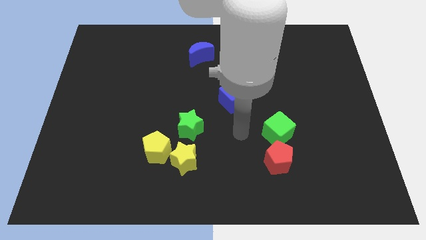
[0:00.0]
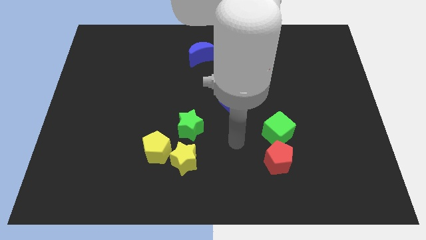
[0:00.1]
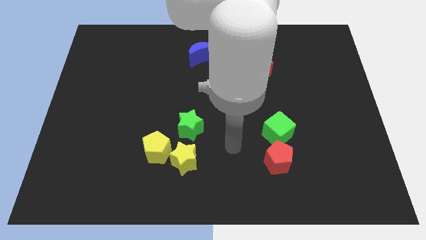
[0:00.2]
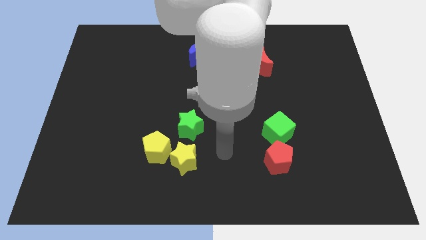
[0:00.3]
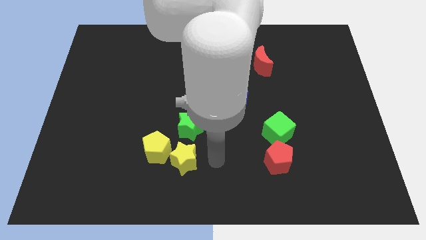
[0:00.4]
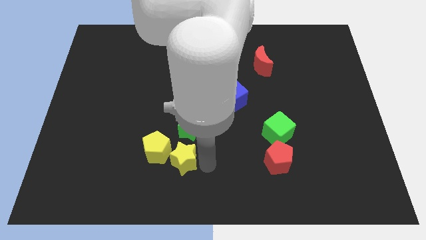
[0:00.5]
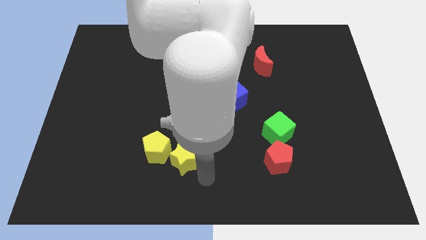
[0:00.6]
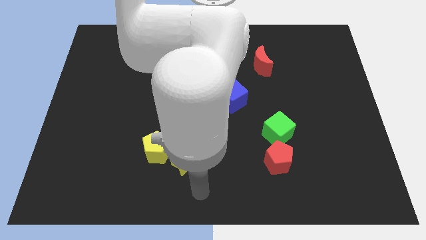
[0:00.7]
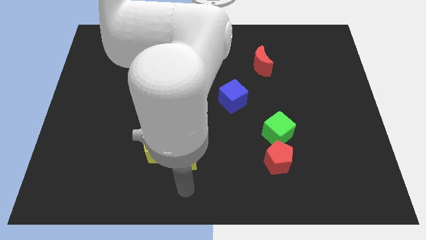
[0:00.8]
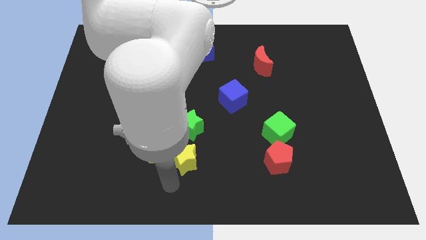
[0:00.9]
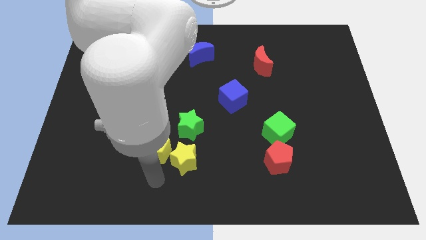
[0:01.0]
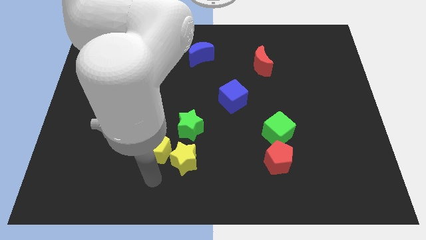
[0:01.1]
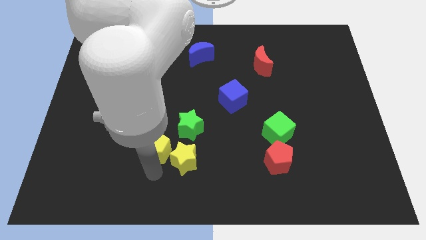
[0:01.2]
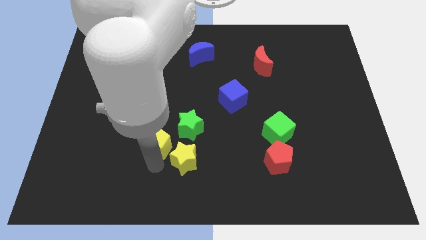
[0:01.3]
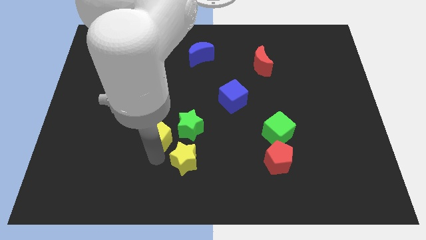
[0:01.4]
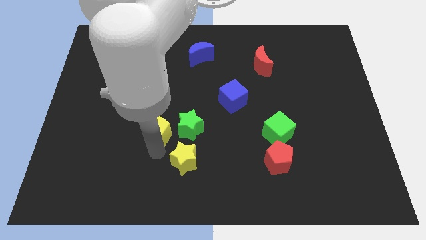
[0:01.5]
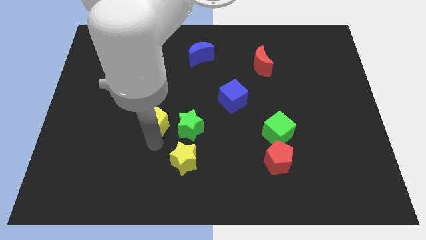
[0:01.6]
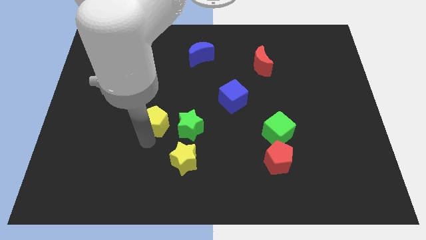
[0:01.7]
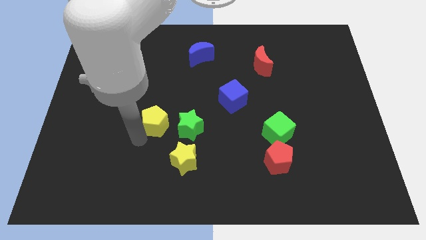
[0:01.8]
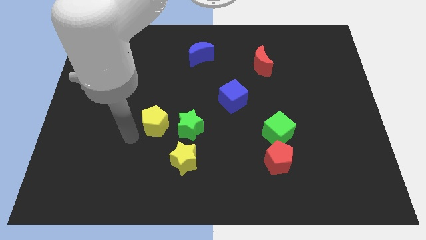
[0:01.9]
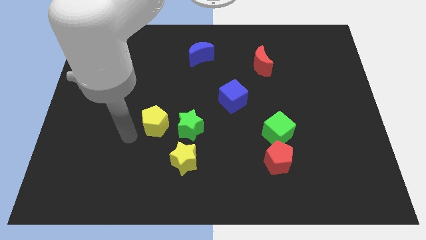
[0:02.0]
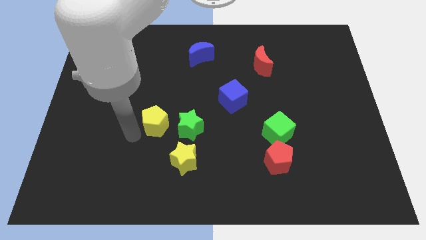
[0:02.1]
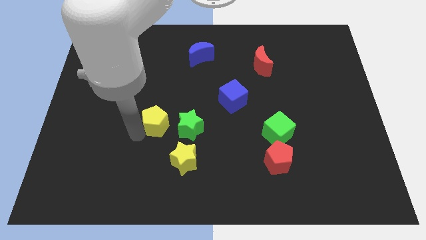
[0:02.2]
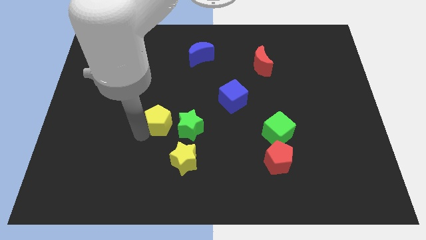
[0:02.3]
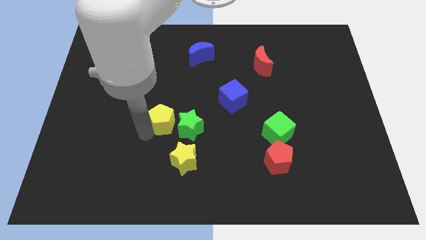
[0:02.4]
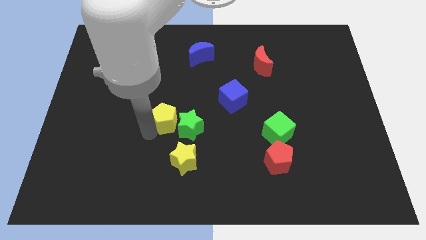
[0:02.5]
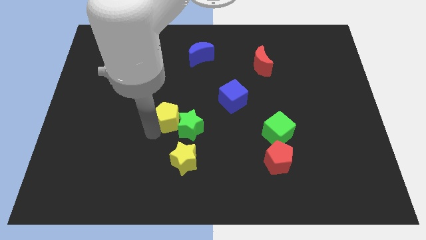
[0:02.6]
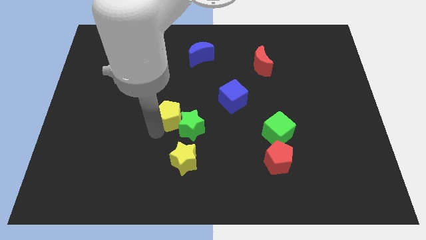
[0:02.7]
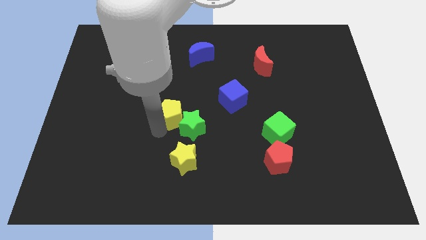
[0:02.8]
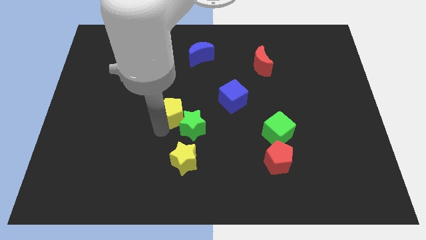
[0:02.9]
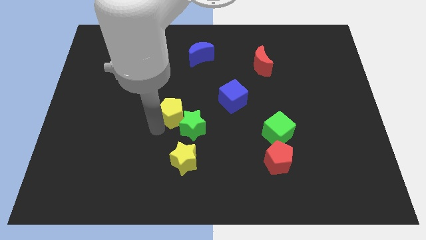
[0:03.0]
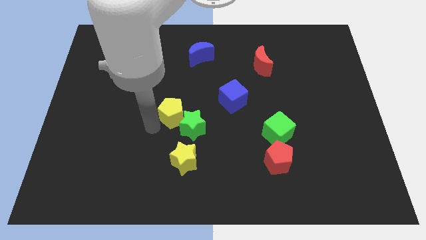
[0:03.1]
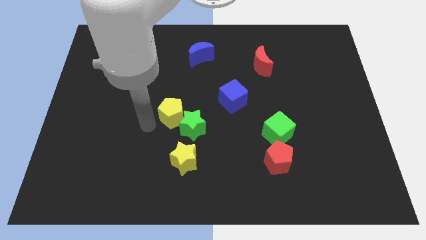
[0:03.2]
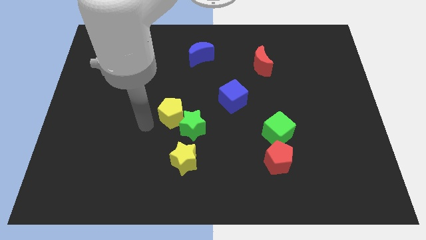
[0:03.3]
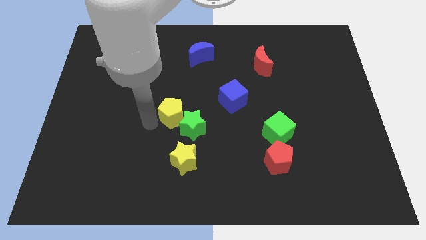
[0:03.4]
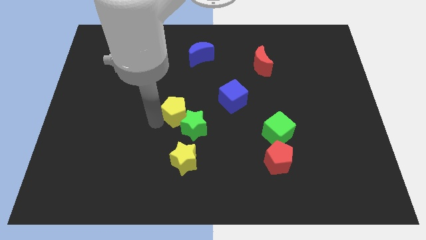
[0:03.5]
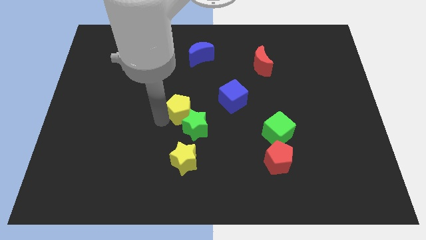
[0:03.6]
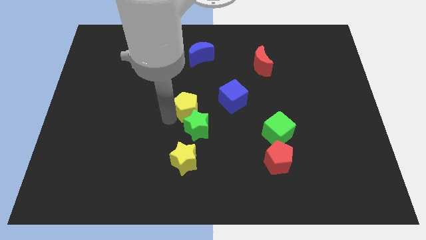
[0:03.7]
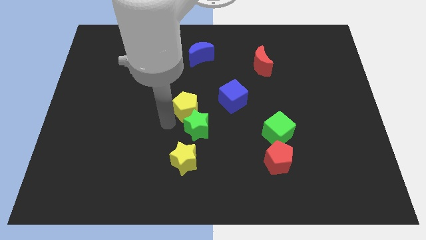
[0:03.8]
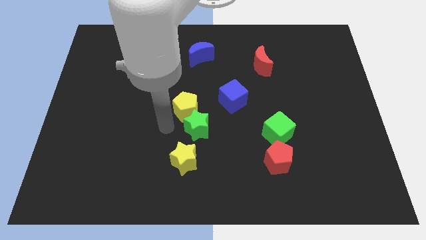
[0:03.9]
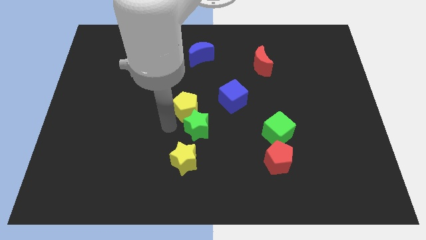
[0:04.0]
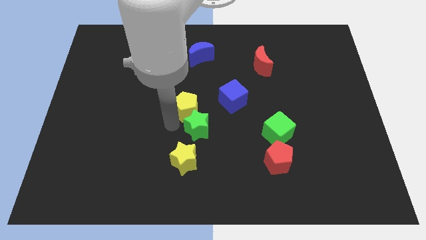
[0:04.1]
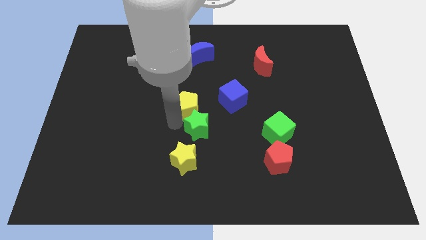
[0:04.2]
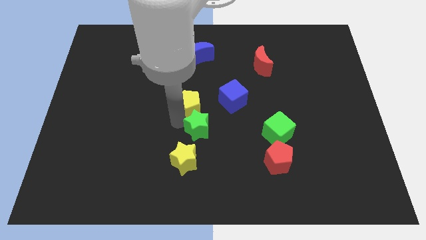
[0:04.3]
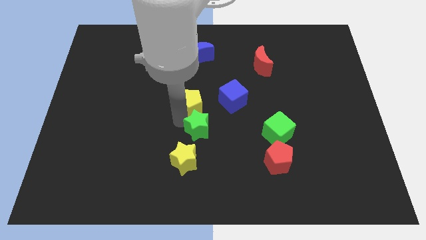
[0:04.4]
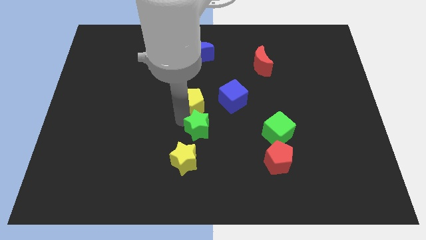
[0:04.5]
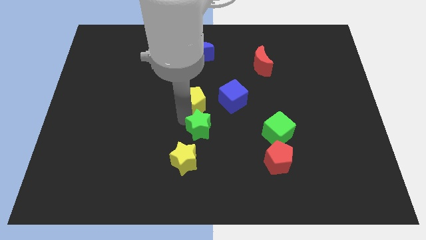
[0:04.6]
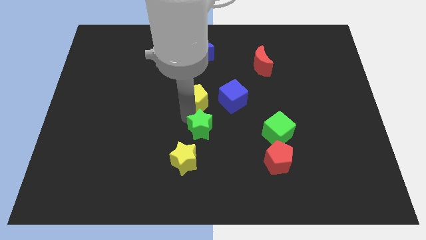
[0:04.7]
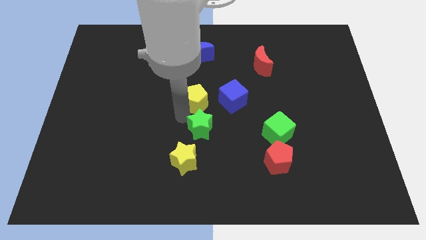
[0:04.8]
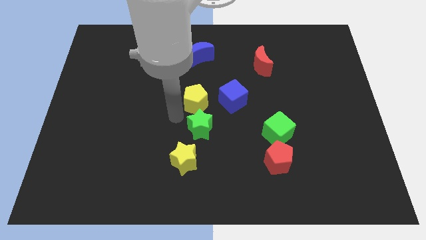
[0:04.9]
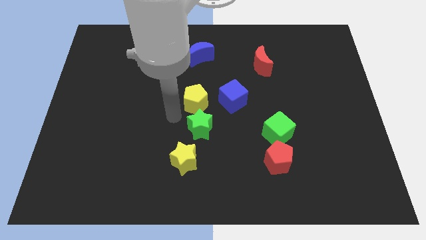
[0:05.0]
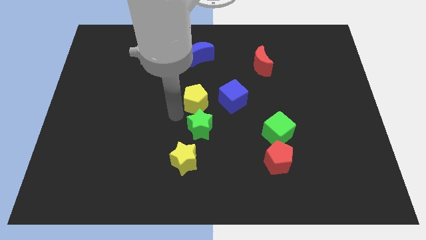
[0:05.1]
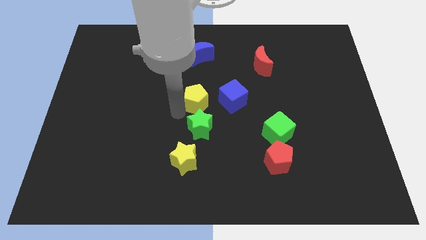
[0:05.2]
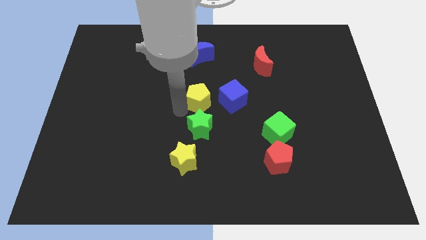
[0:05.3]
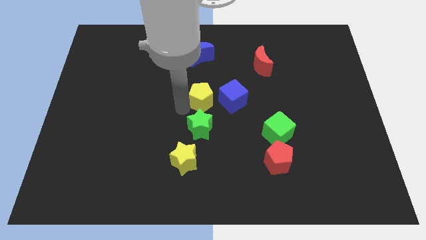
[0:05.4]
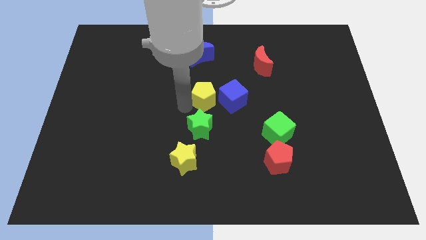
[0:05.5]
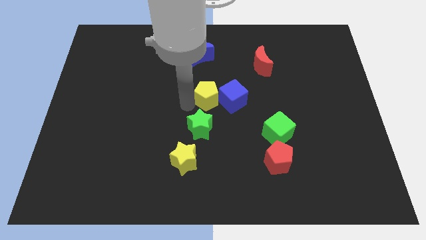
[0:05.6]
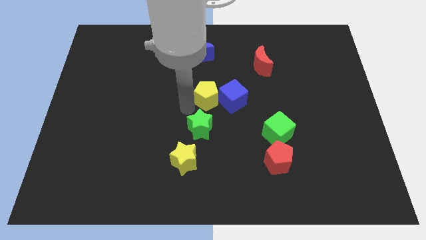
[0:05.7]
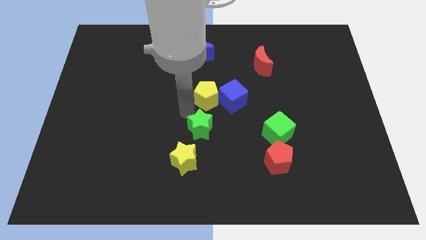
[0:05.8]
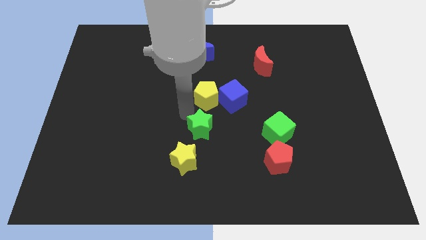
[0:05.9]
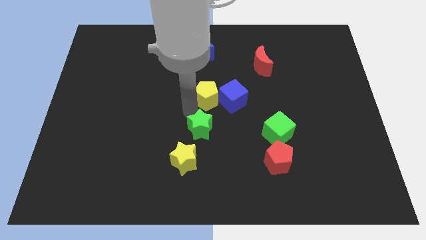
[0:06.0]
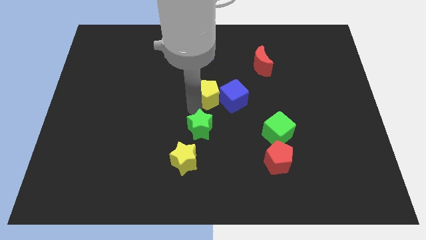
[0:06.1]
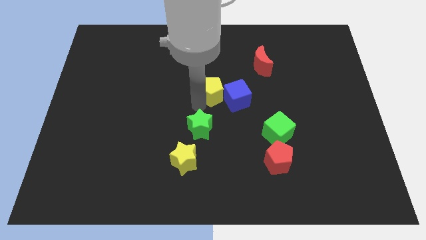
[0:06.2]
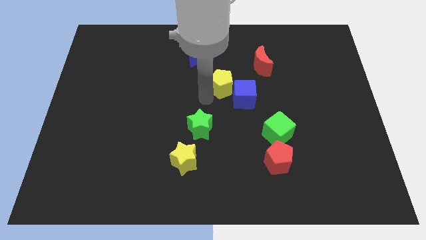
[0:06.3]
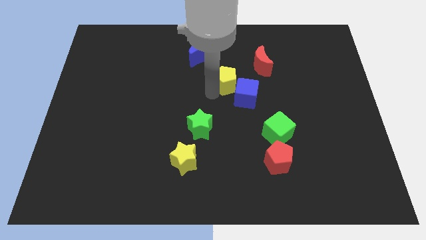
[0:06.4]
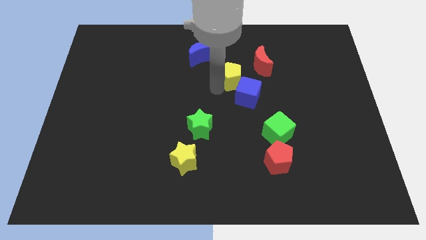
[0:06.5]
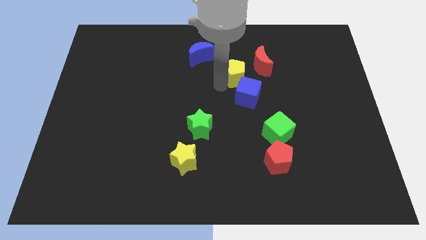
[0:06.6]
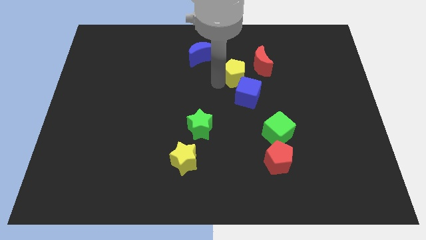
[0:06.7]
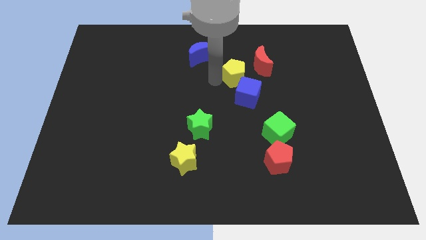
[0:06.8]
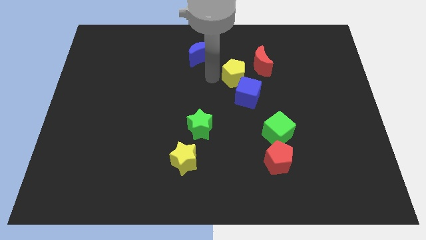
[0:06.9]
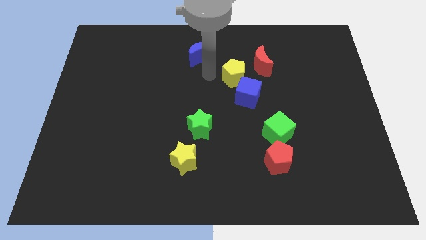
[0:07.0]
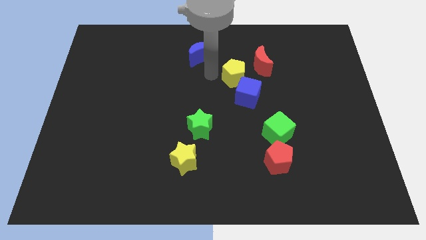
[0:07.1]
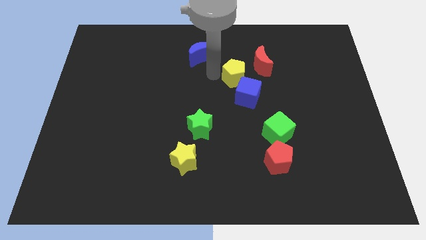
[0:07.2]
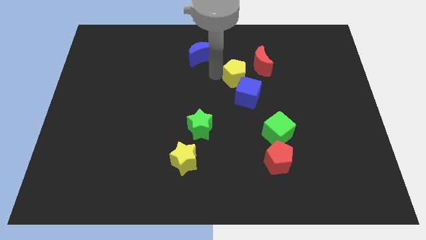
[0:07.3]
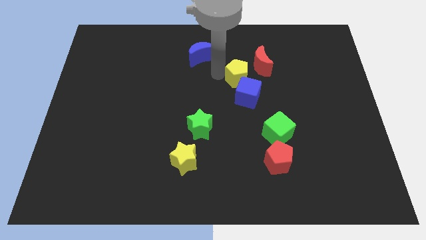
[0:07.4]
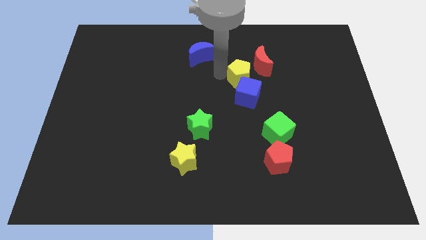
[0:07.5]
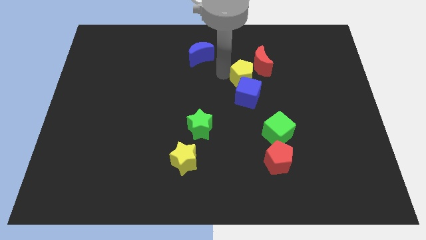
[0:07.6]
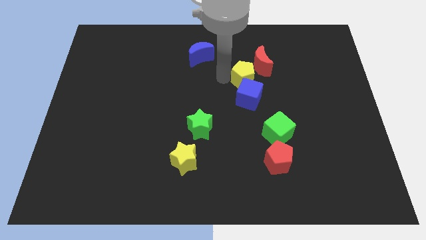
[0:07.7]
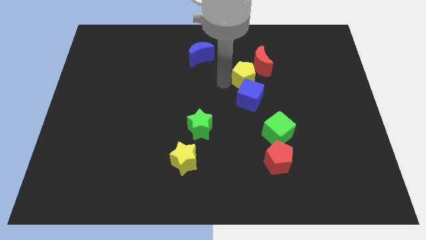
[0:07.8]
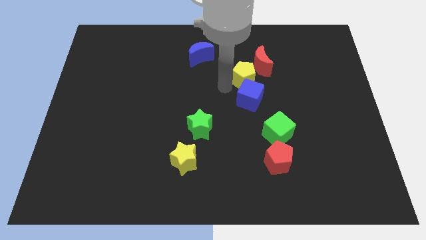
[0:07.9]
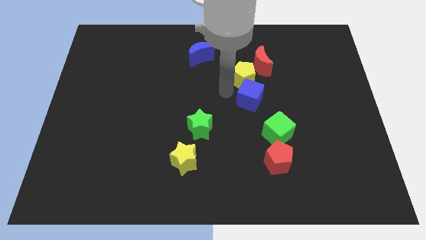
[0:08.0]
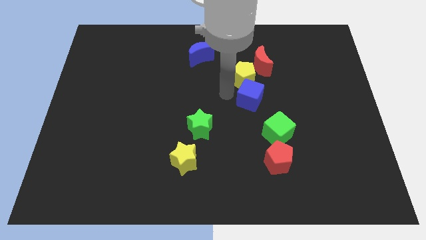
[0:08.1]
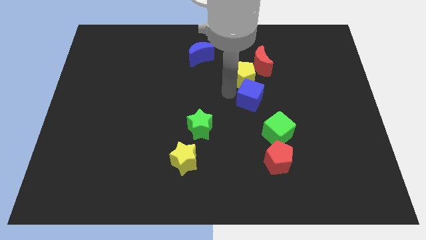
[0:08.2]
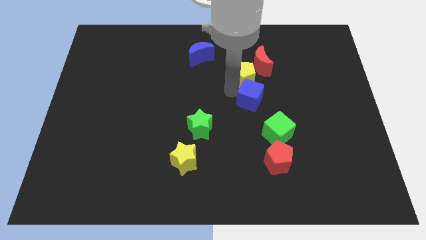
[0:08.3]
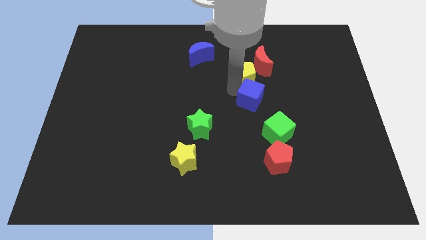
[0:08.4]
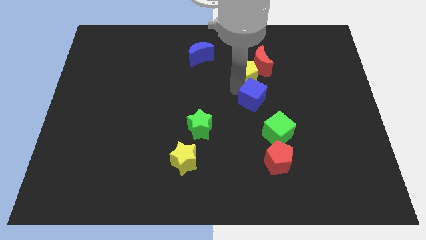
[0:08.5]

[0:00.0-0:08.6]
move the yellow pentagon towards the red moon
